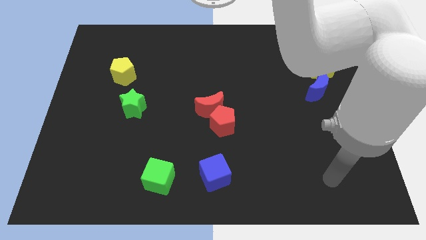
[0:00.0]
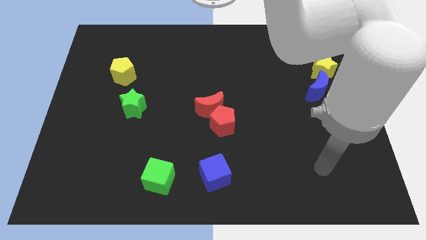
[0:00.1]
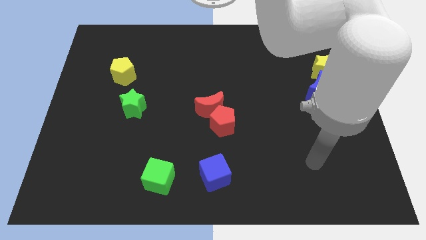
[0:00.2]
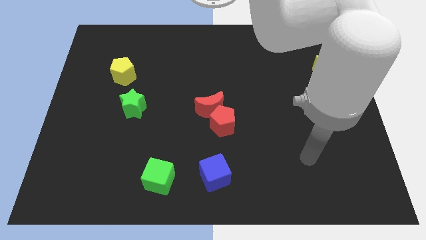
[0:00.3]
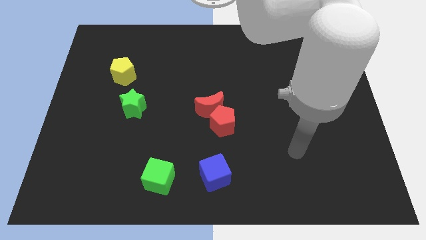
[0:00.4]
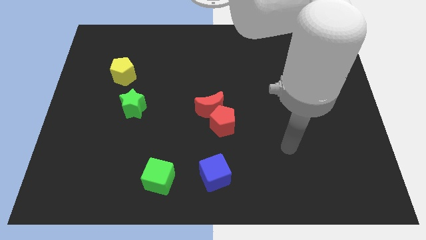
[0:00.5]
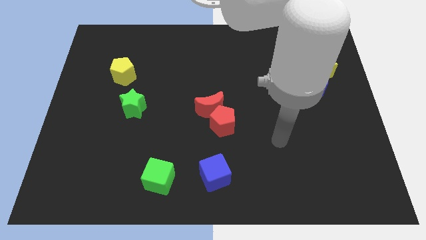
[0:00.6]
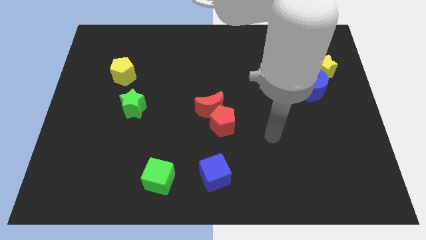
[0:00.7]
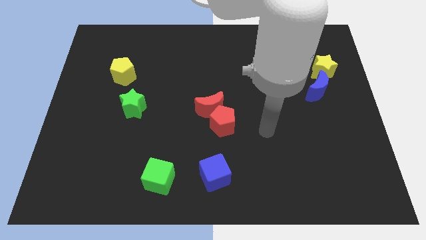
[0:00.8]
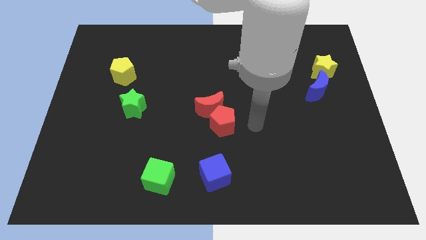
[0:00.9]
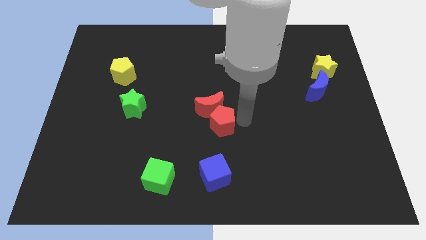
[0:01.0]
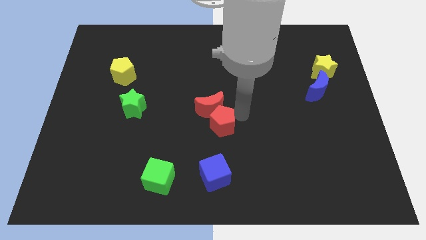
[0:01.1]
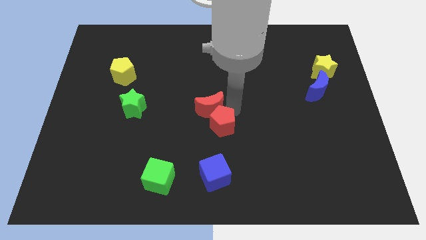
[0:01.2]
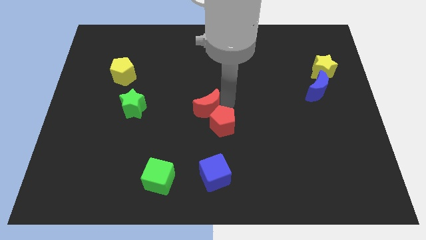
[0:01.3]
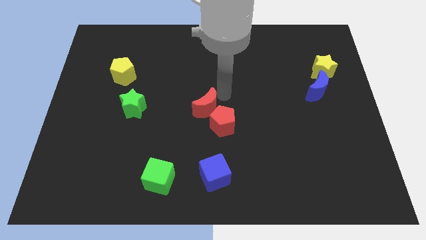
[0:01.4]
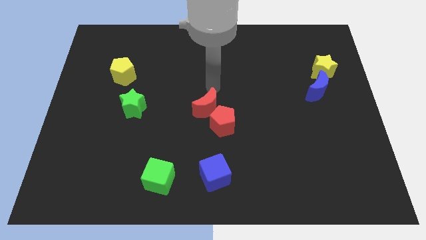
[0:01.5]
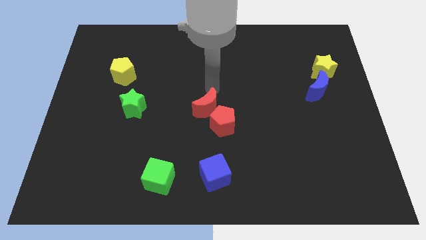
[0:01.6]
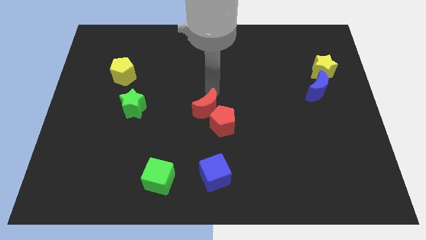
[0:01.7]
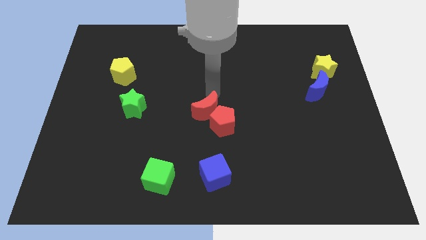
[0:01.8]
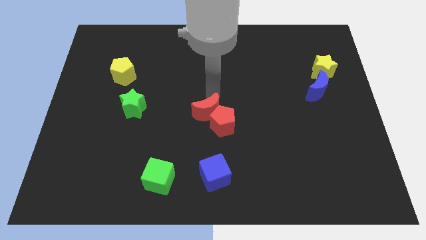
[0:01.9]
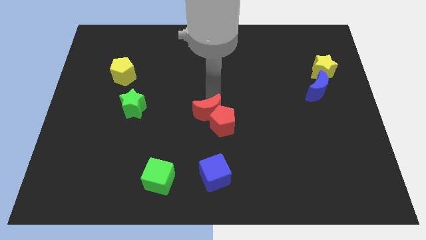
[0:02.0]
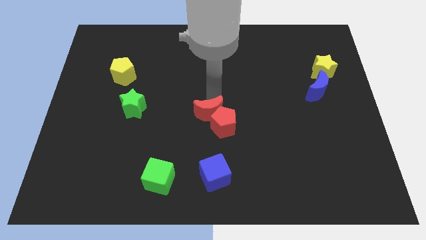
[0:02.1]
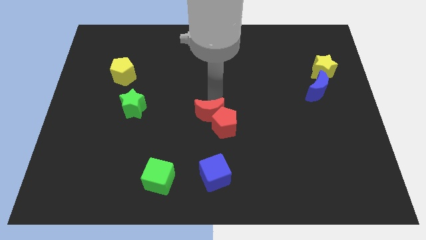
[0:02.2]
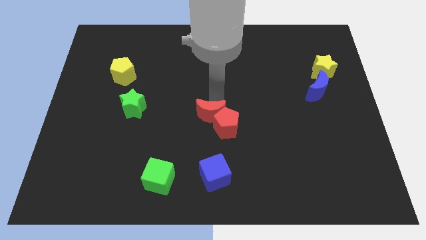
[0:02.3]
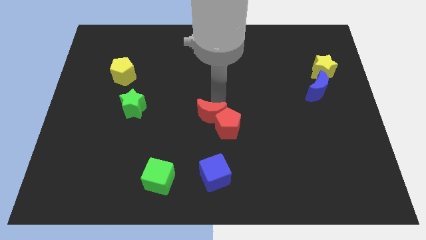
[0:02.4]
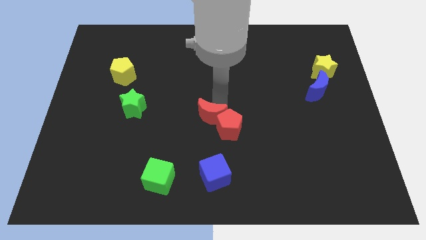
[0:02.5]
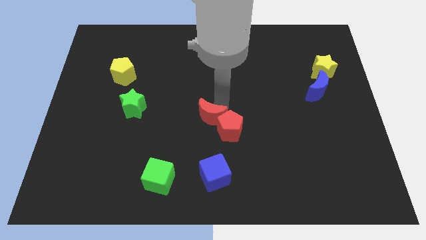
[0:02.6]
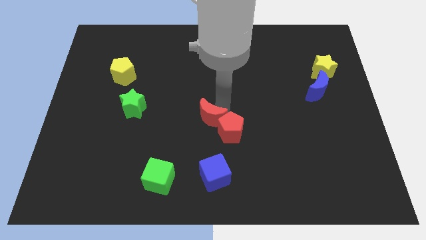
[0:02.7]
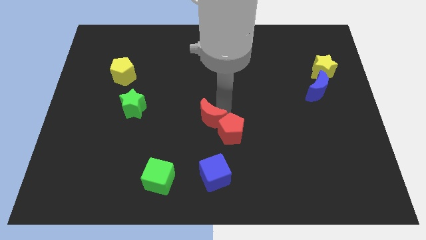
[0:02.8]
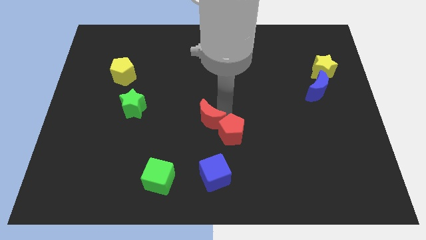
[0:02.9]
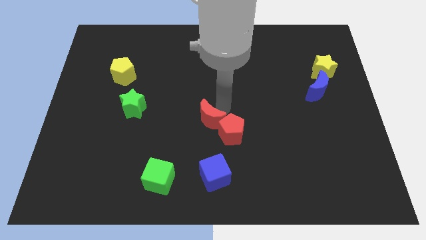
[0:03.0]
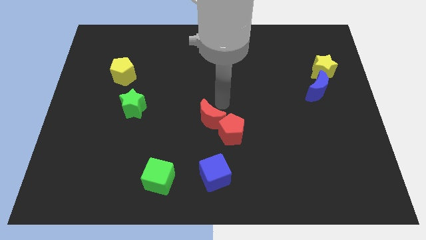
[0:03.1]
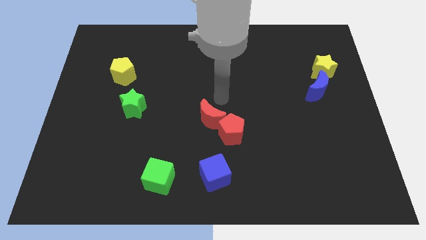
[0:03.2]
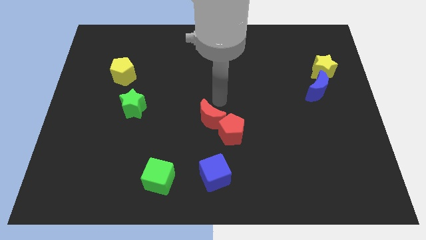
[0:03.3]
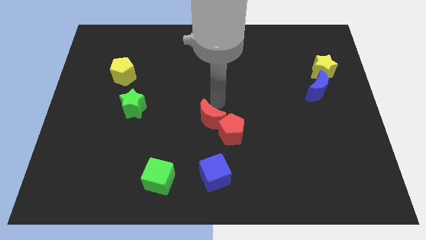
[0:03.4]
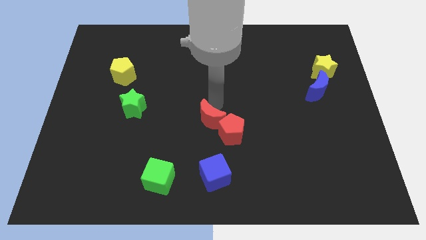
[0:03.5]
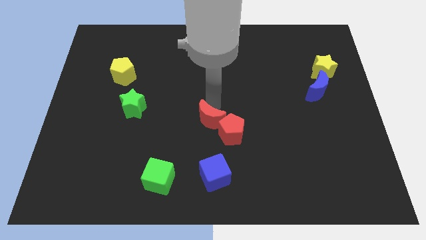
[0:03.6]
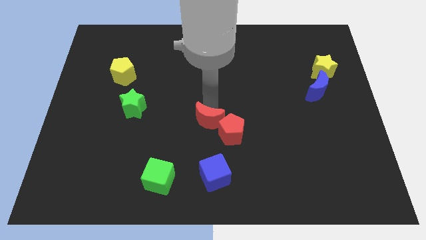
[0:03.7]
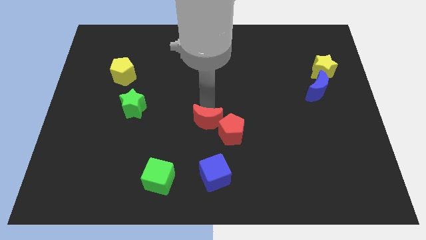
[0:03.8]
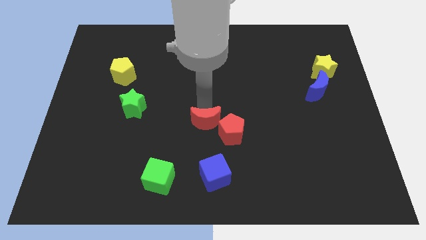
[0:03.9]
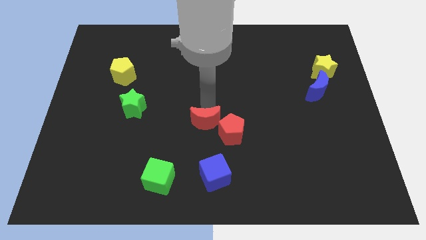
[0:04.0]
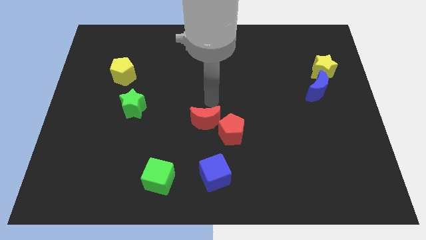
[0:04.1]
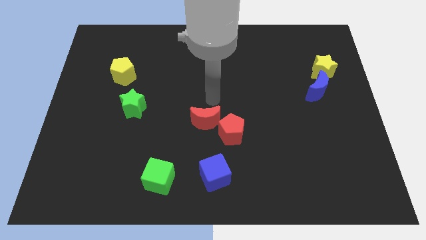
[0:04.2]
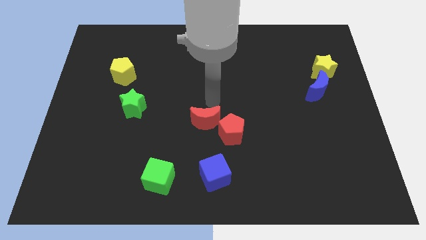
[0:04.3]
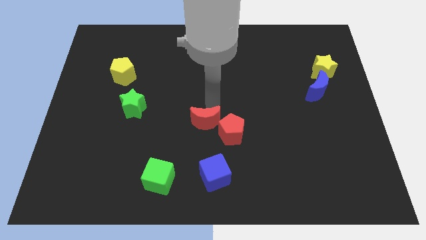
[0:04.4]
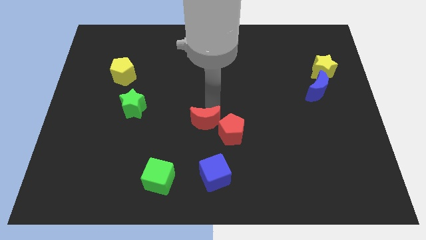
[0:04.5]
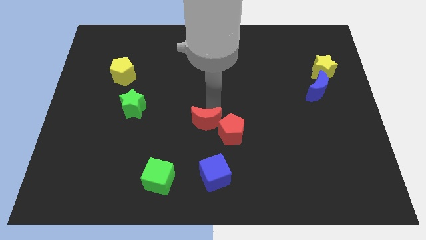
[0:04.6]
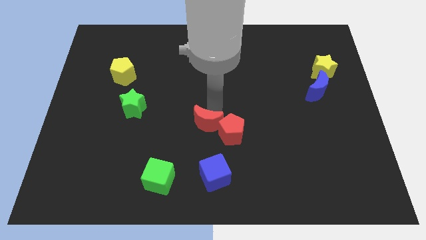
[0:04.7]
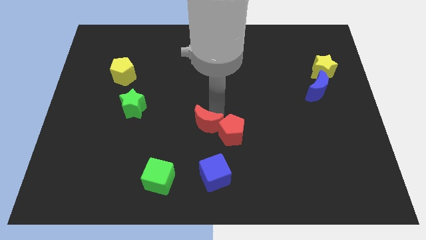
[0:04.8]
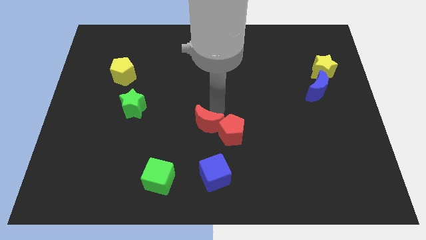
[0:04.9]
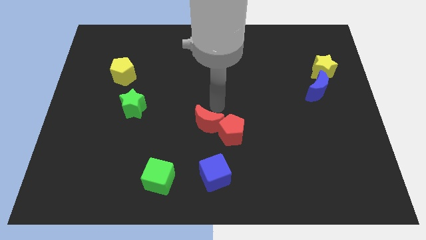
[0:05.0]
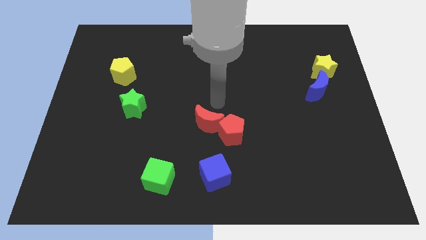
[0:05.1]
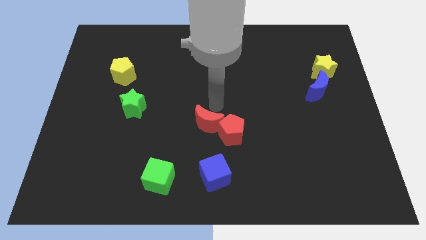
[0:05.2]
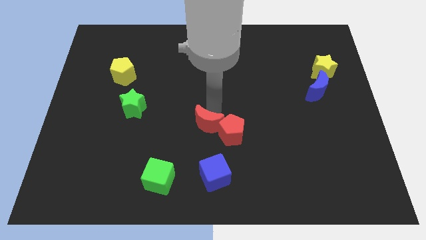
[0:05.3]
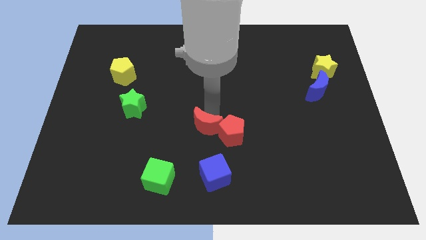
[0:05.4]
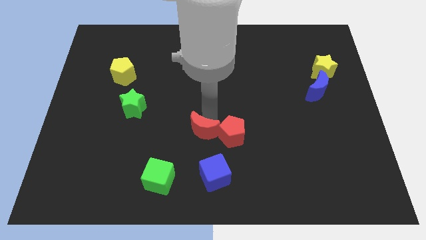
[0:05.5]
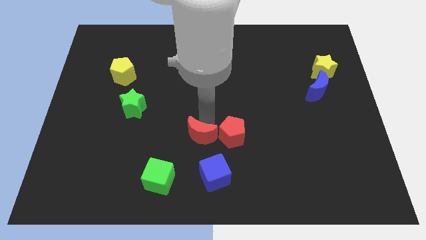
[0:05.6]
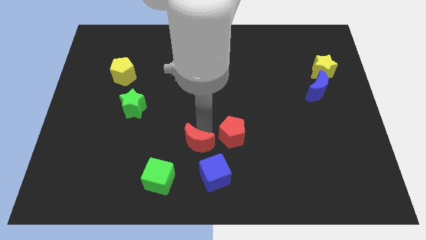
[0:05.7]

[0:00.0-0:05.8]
push the red moon to the top right of the green cube

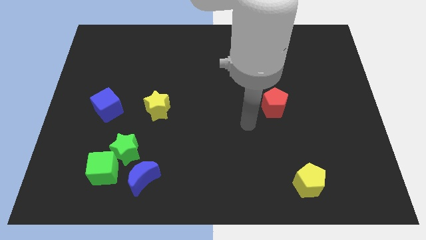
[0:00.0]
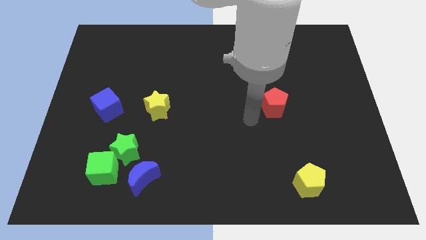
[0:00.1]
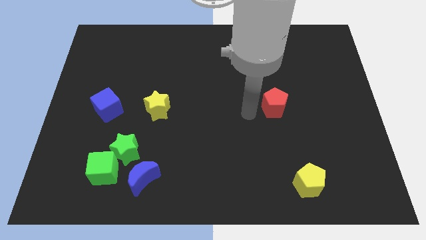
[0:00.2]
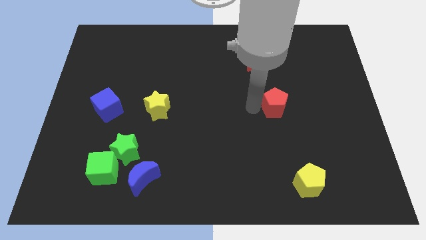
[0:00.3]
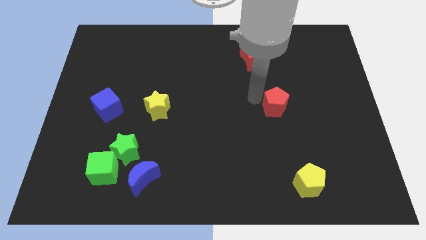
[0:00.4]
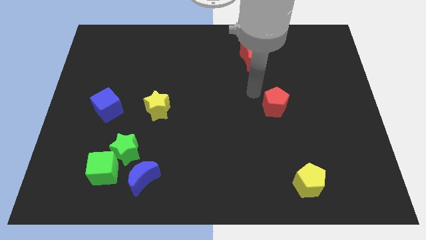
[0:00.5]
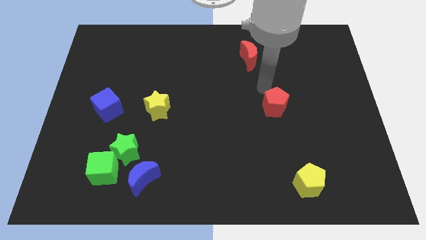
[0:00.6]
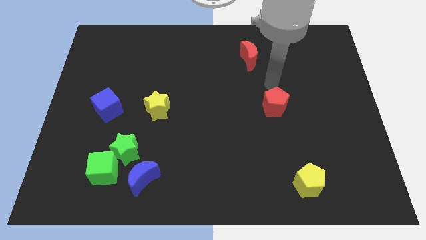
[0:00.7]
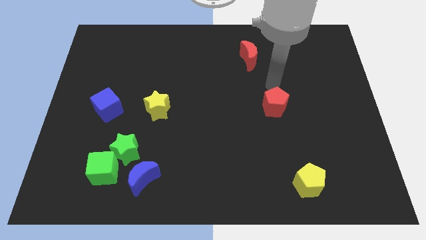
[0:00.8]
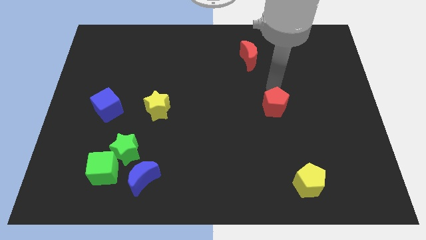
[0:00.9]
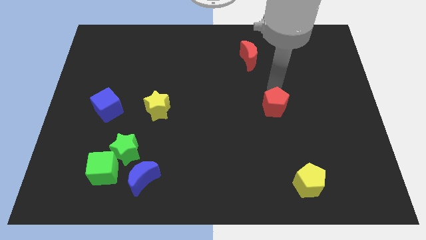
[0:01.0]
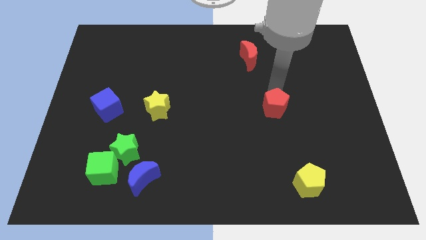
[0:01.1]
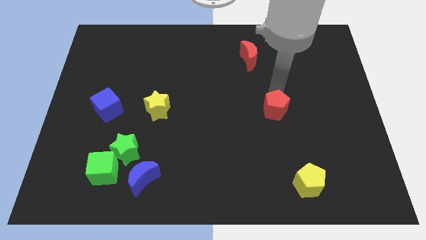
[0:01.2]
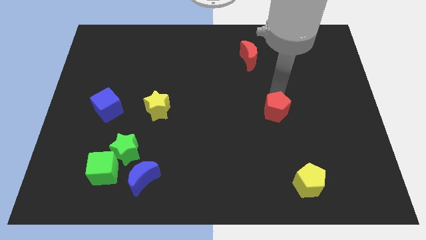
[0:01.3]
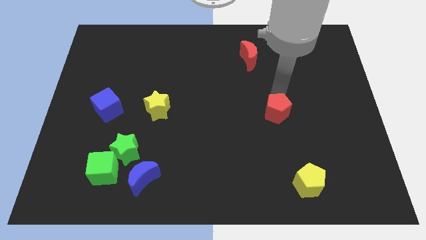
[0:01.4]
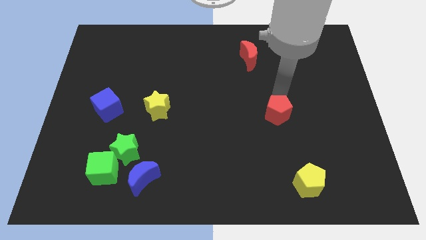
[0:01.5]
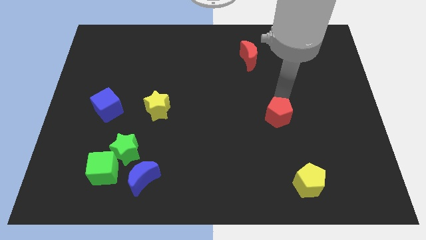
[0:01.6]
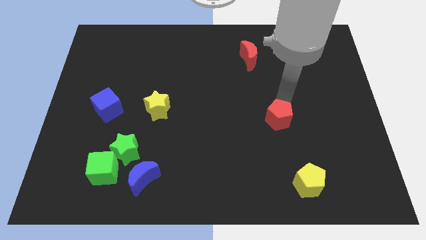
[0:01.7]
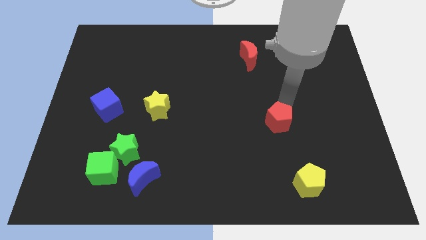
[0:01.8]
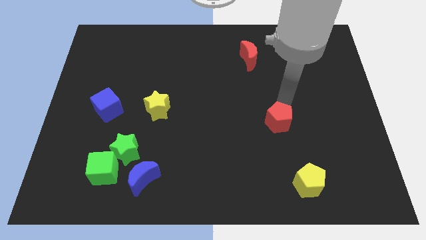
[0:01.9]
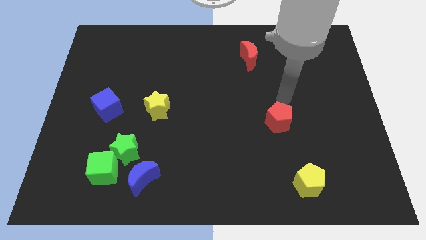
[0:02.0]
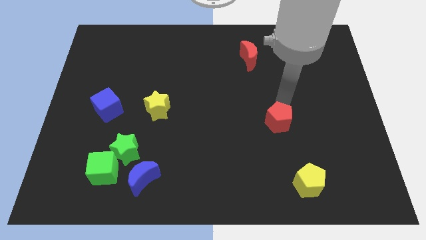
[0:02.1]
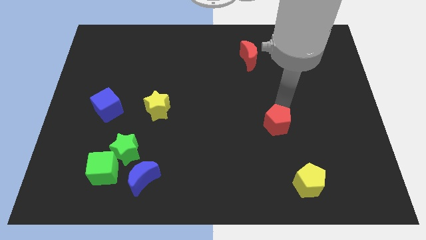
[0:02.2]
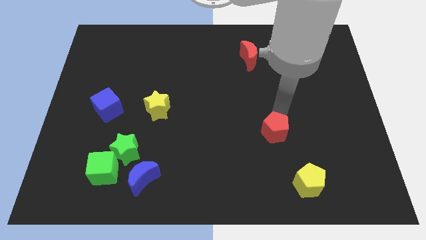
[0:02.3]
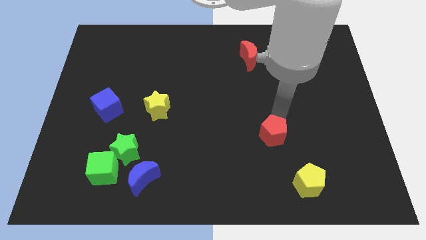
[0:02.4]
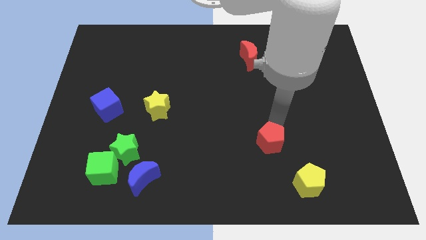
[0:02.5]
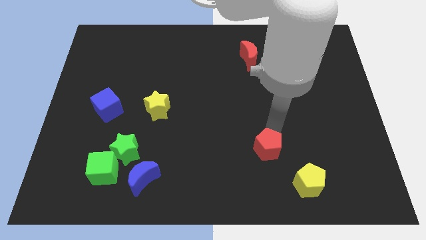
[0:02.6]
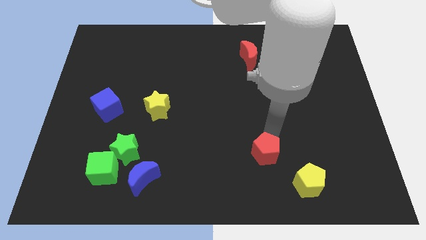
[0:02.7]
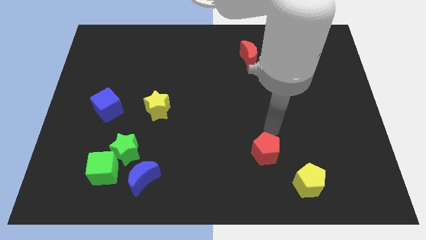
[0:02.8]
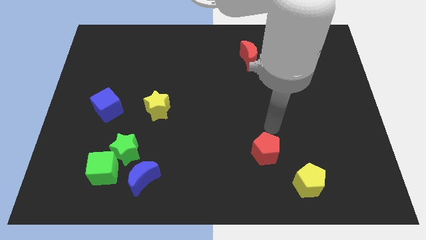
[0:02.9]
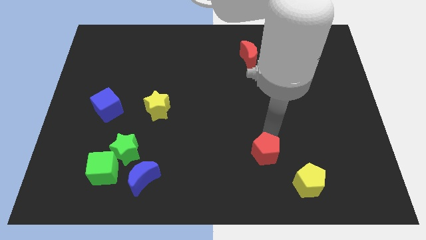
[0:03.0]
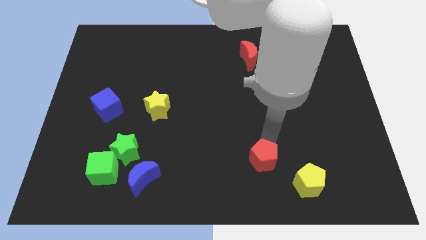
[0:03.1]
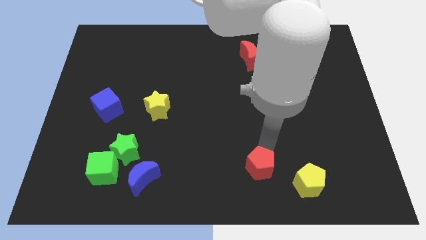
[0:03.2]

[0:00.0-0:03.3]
slide the red pentagon to the left side of the yellow pentagon
